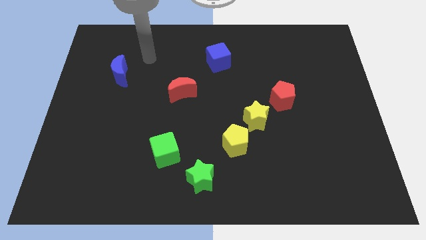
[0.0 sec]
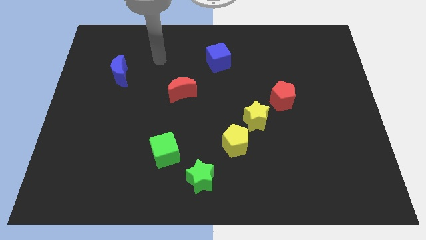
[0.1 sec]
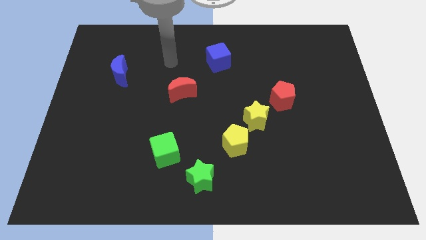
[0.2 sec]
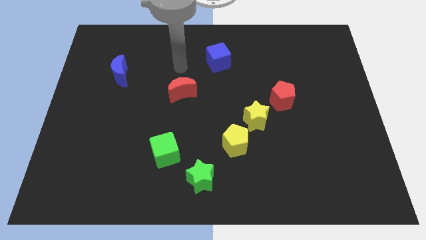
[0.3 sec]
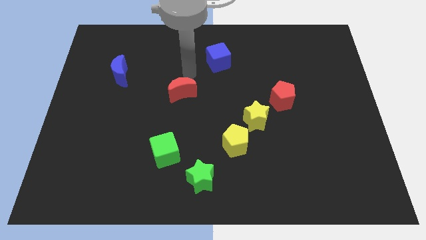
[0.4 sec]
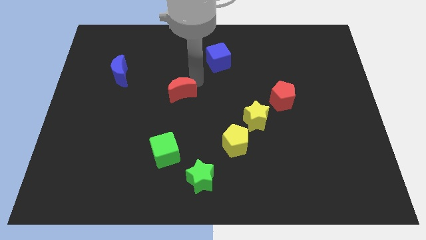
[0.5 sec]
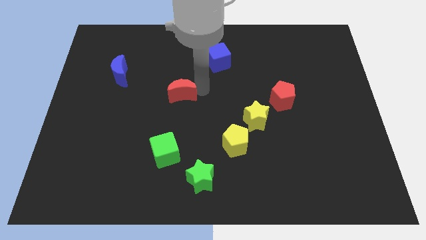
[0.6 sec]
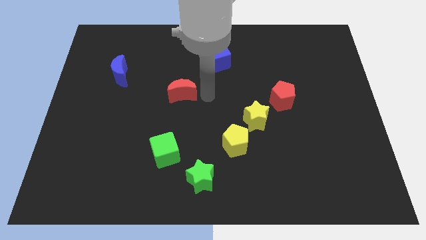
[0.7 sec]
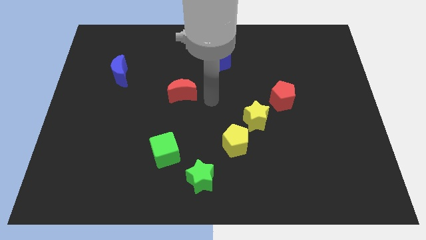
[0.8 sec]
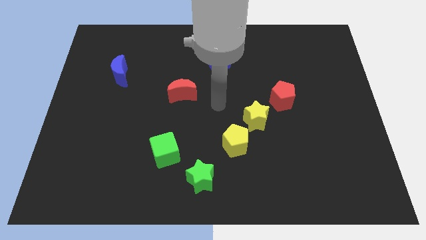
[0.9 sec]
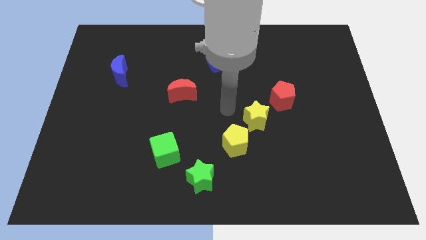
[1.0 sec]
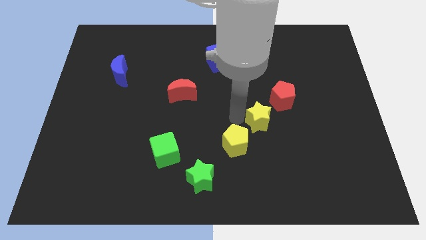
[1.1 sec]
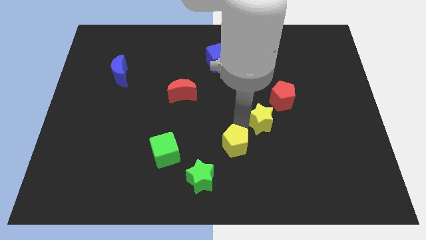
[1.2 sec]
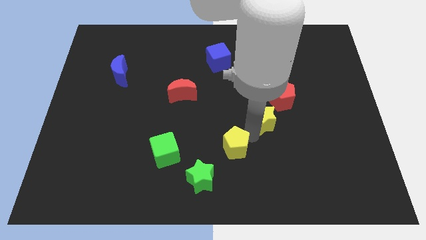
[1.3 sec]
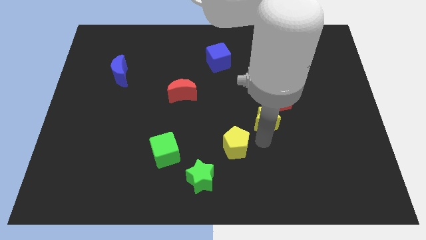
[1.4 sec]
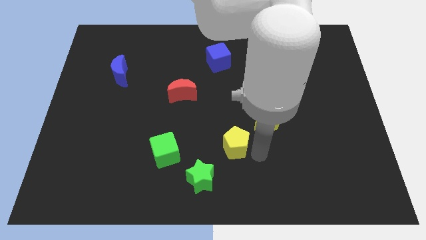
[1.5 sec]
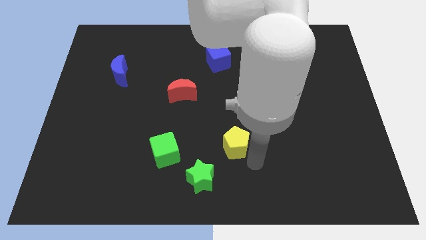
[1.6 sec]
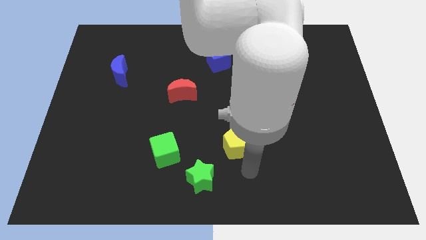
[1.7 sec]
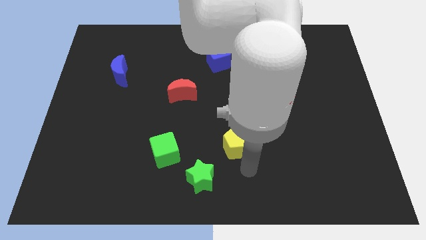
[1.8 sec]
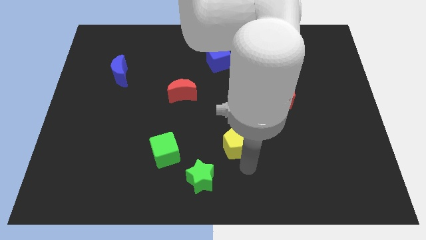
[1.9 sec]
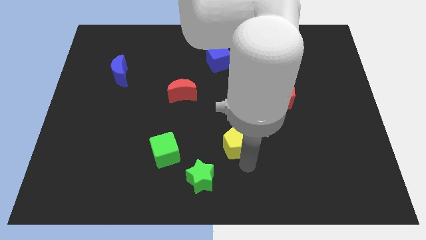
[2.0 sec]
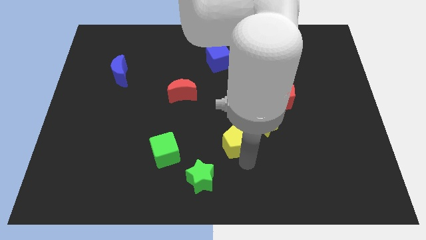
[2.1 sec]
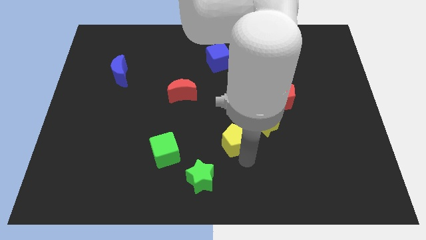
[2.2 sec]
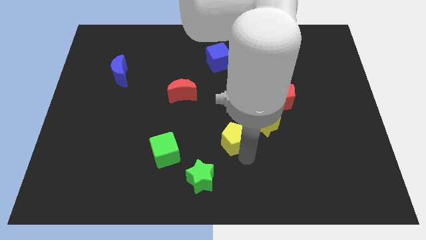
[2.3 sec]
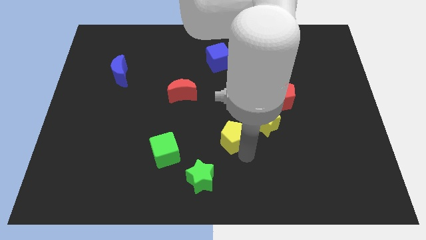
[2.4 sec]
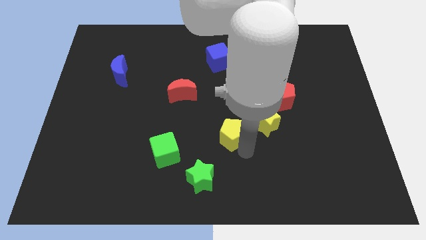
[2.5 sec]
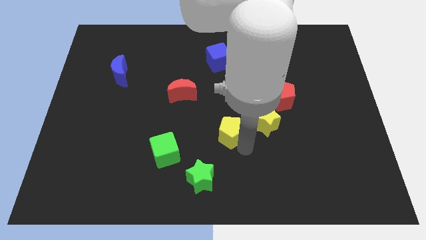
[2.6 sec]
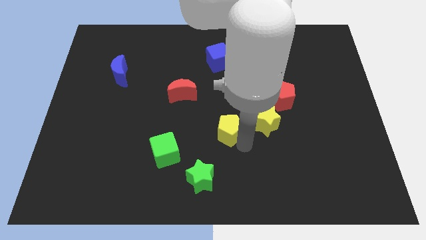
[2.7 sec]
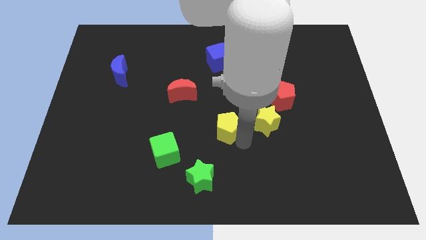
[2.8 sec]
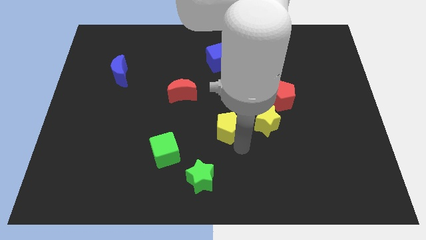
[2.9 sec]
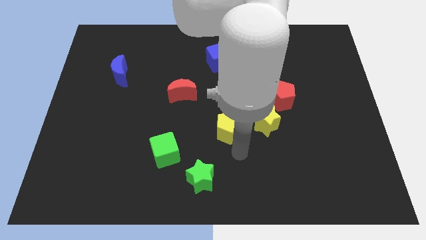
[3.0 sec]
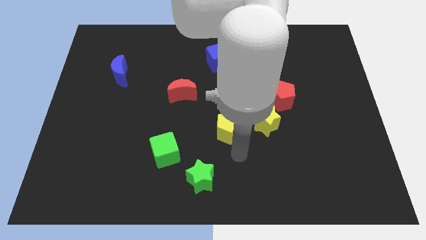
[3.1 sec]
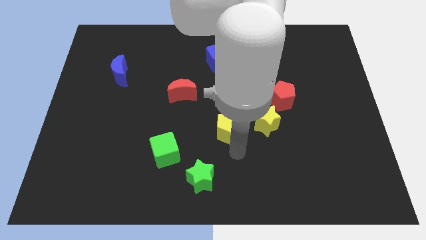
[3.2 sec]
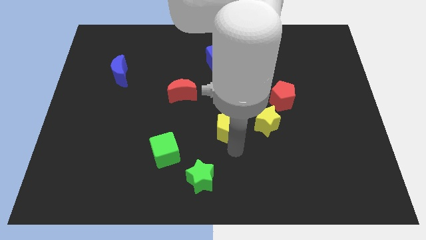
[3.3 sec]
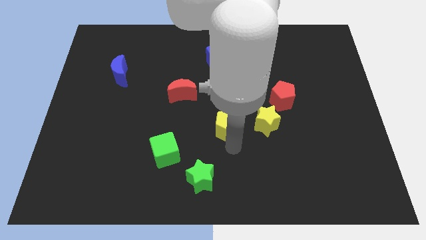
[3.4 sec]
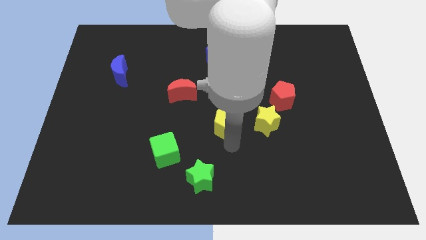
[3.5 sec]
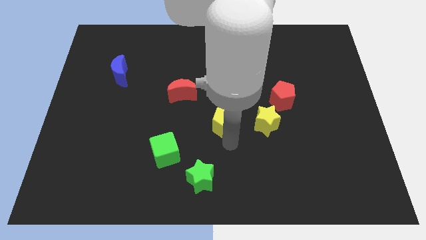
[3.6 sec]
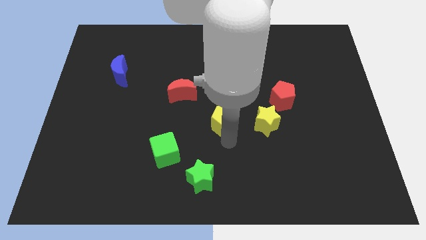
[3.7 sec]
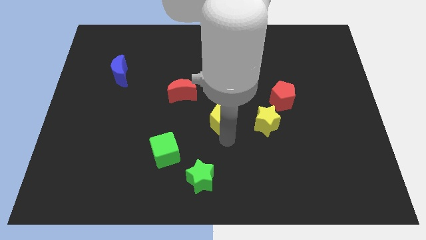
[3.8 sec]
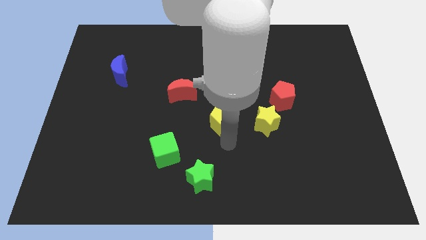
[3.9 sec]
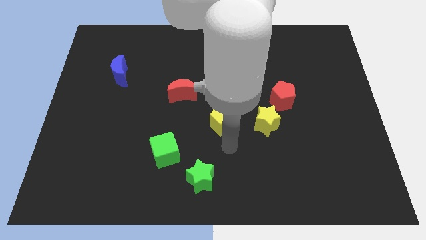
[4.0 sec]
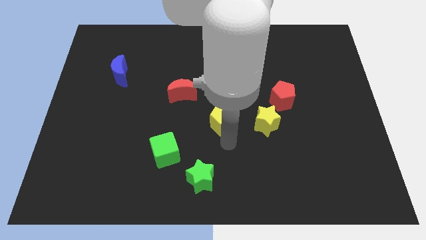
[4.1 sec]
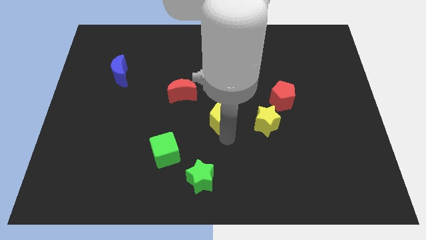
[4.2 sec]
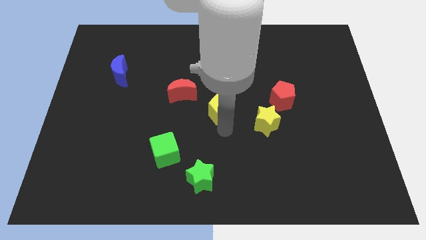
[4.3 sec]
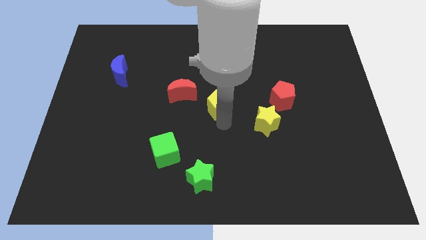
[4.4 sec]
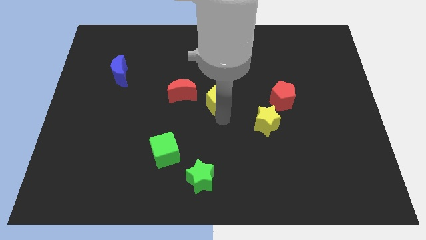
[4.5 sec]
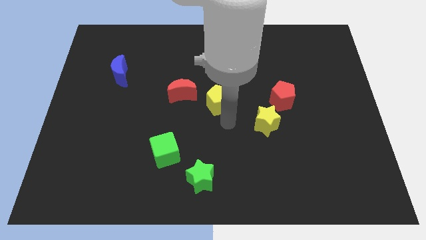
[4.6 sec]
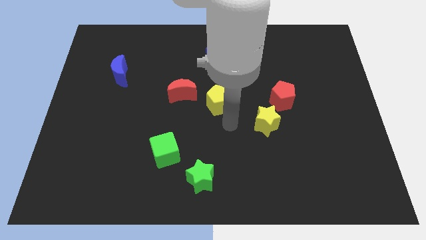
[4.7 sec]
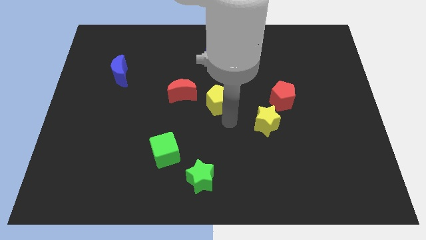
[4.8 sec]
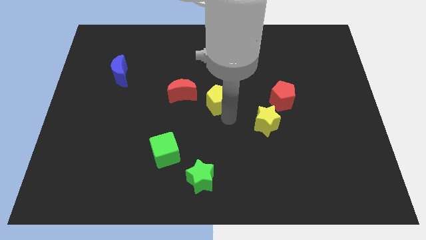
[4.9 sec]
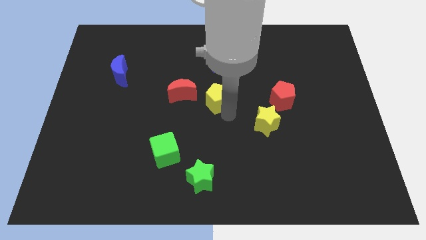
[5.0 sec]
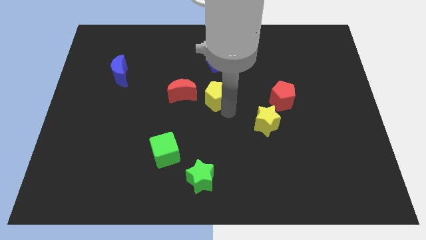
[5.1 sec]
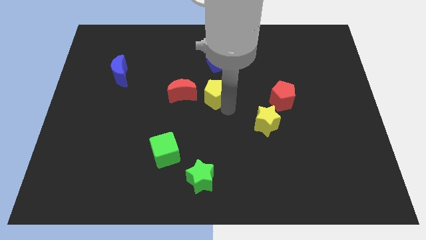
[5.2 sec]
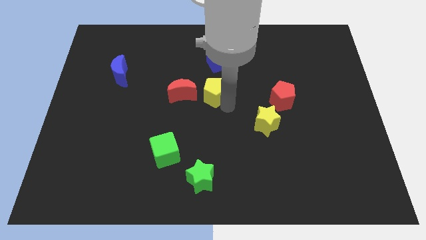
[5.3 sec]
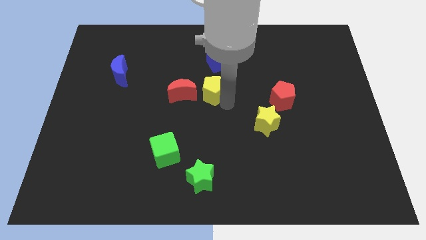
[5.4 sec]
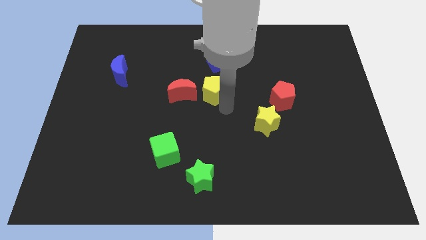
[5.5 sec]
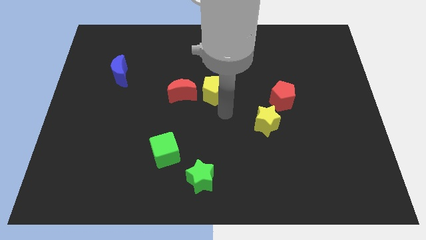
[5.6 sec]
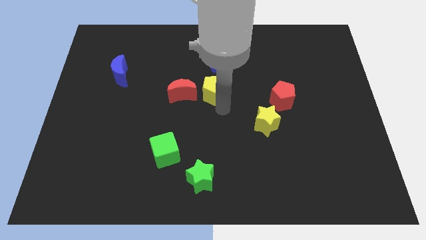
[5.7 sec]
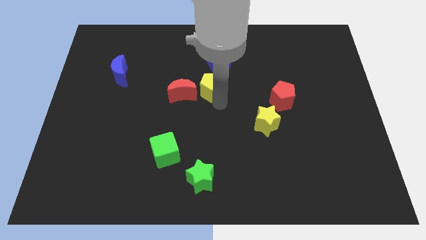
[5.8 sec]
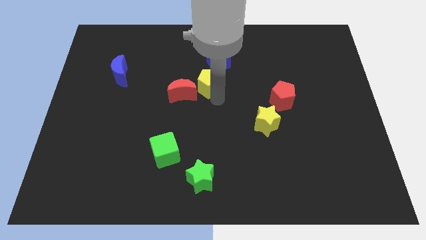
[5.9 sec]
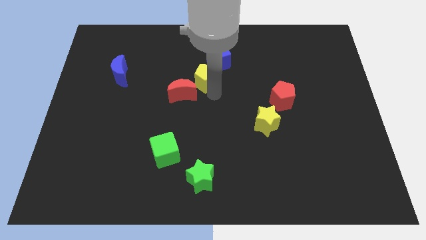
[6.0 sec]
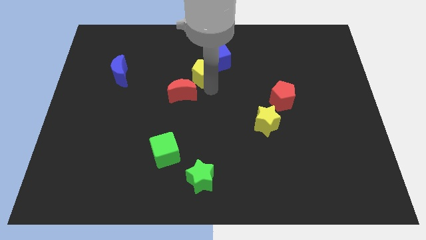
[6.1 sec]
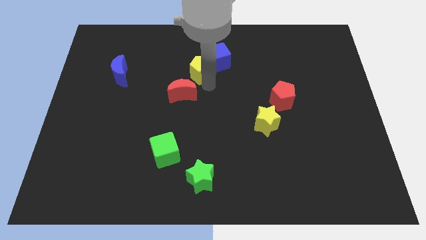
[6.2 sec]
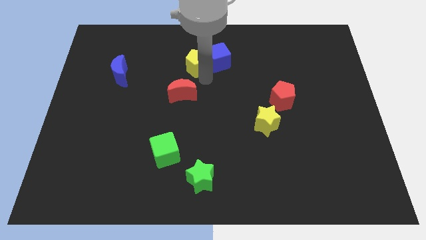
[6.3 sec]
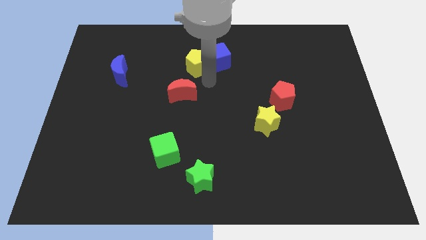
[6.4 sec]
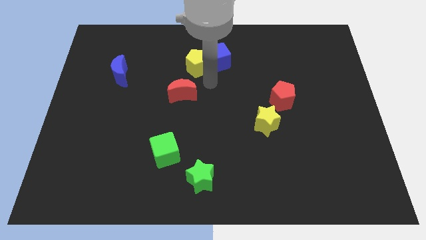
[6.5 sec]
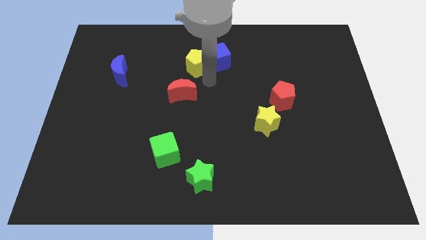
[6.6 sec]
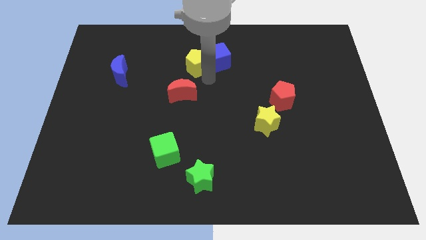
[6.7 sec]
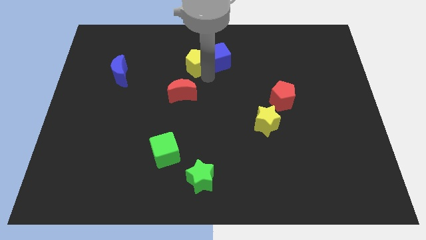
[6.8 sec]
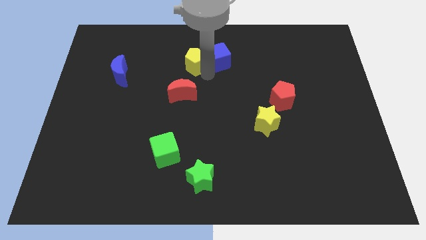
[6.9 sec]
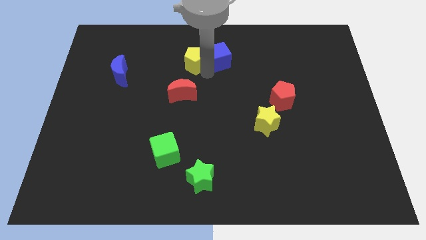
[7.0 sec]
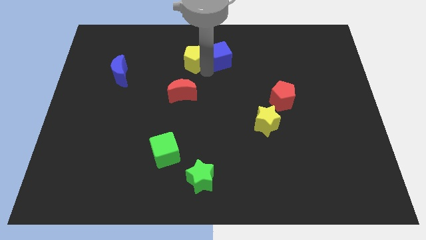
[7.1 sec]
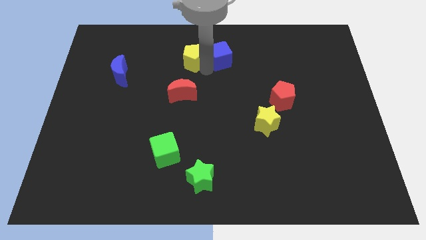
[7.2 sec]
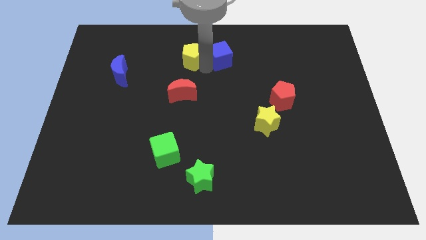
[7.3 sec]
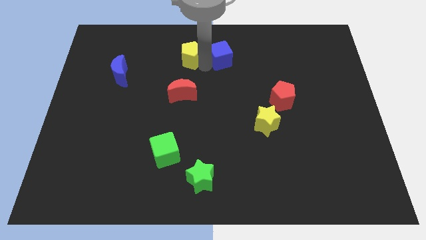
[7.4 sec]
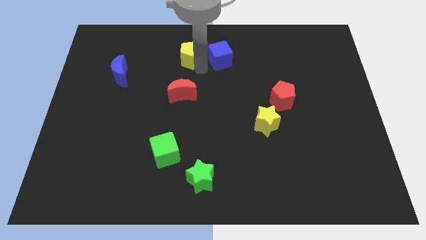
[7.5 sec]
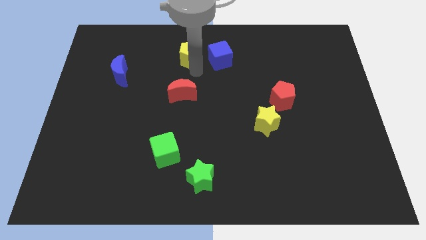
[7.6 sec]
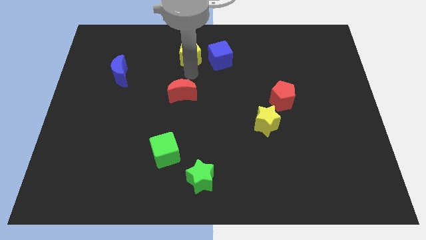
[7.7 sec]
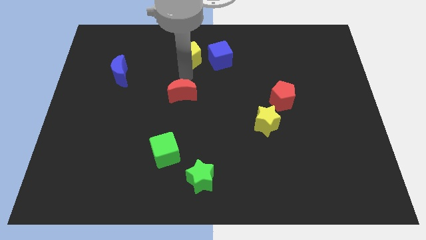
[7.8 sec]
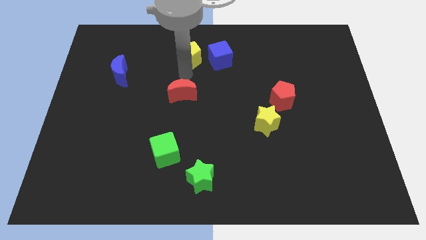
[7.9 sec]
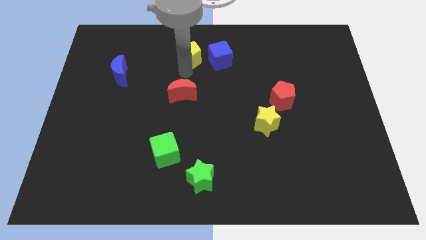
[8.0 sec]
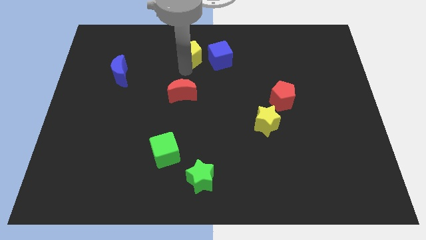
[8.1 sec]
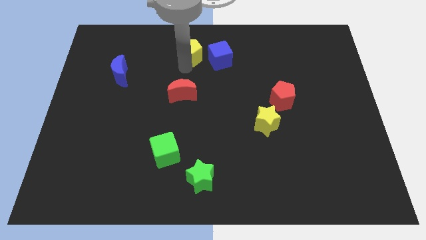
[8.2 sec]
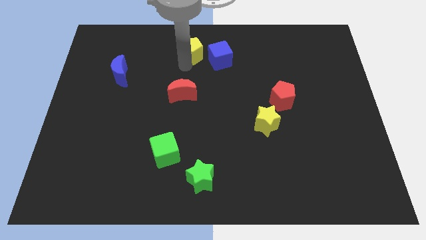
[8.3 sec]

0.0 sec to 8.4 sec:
move the yellow pentagon to the top
